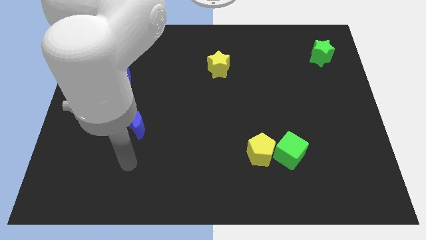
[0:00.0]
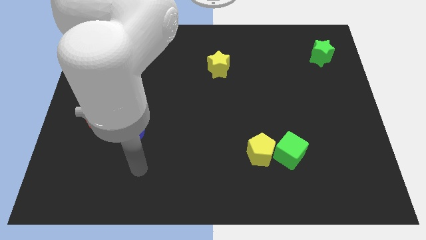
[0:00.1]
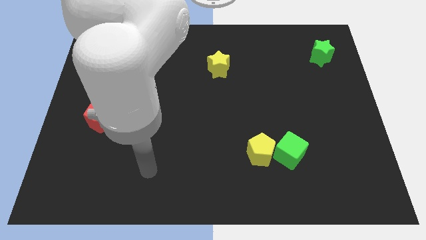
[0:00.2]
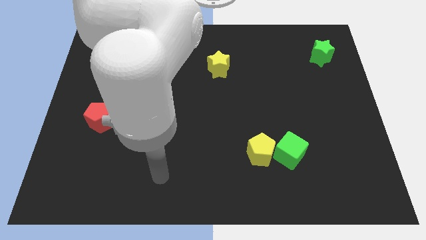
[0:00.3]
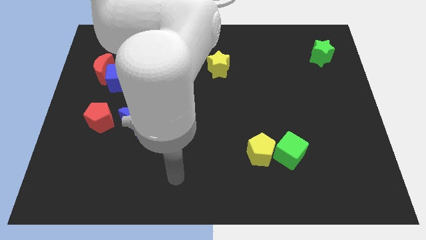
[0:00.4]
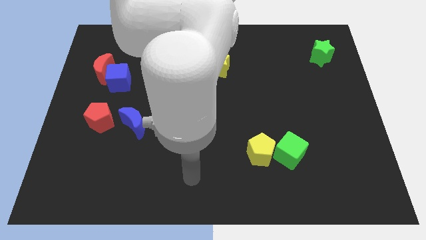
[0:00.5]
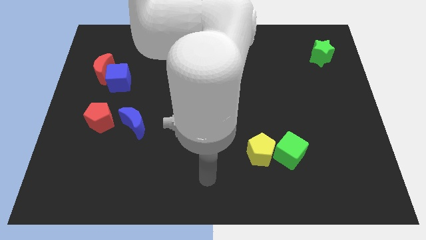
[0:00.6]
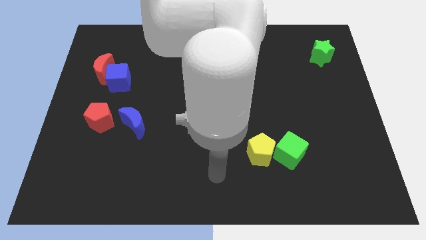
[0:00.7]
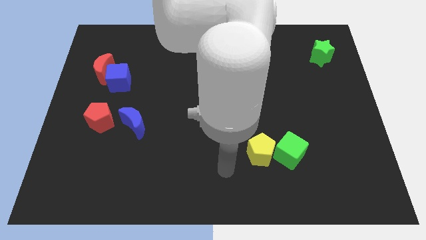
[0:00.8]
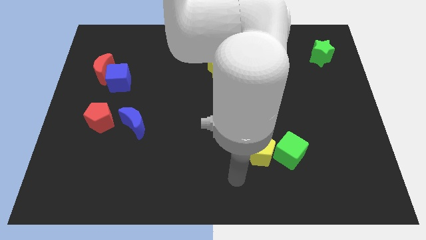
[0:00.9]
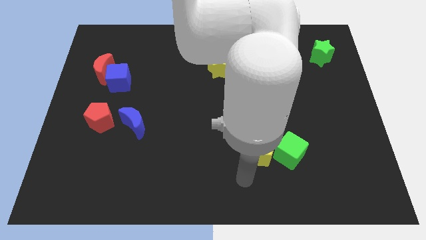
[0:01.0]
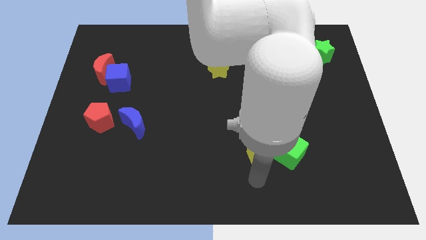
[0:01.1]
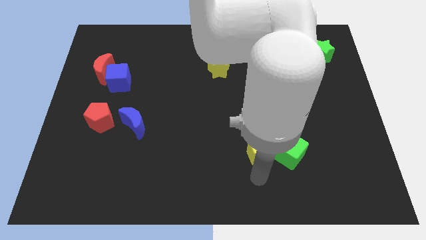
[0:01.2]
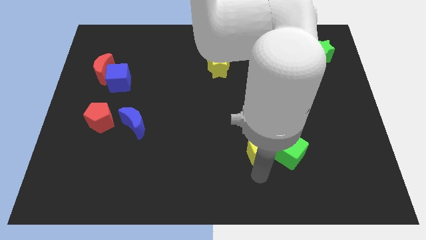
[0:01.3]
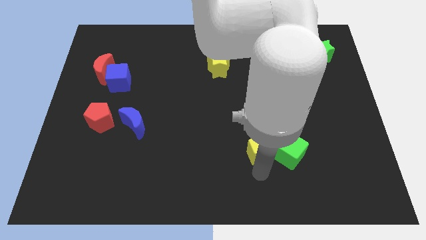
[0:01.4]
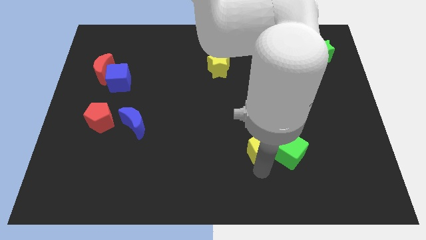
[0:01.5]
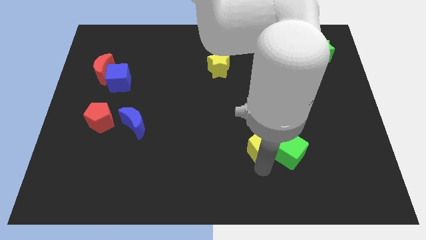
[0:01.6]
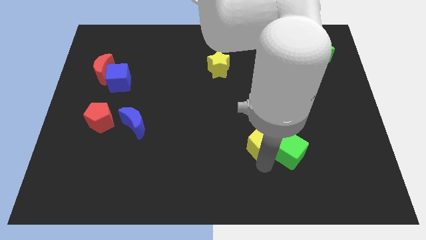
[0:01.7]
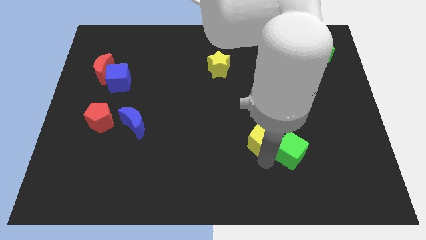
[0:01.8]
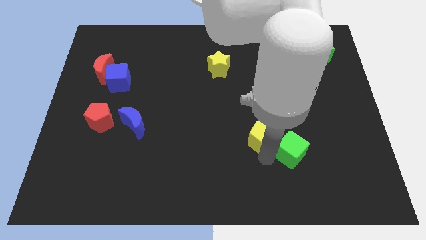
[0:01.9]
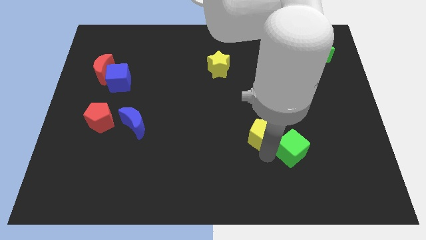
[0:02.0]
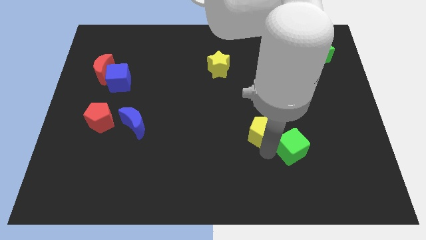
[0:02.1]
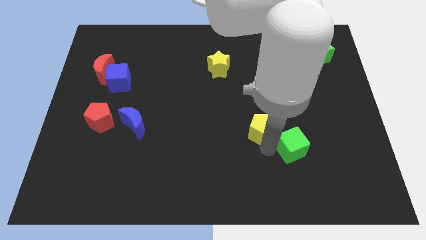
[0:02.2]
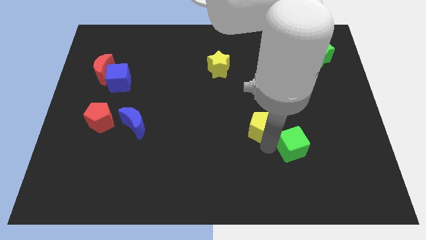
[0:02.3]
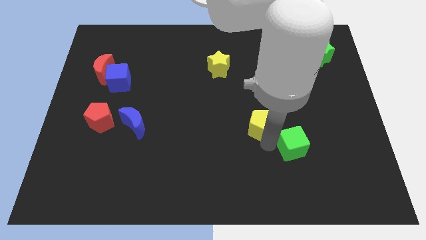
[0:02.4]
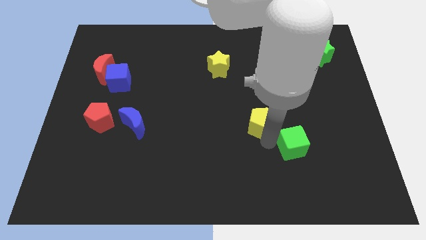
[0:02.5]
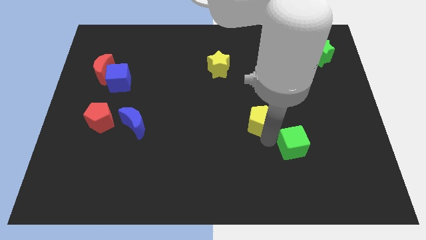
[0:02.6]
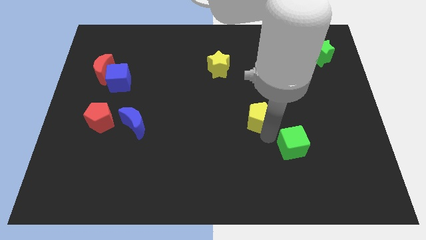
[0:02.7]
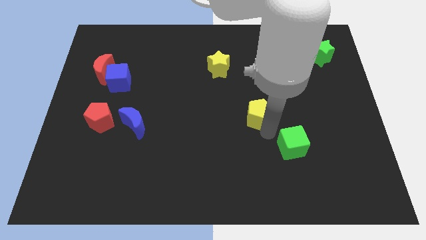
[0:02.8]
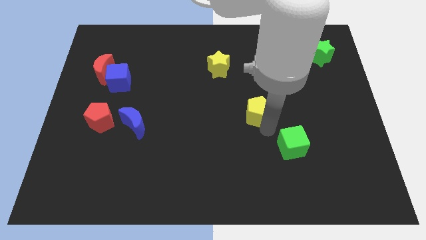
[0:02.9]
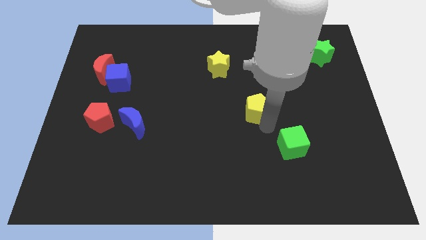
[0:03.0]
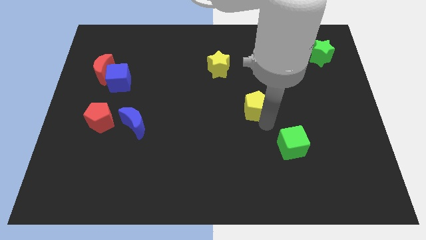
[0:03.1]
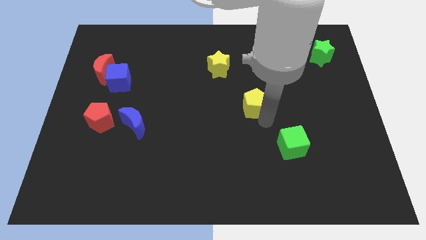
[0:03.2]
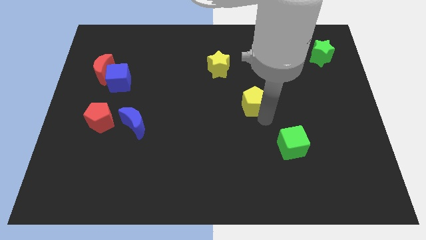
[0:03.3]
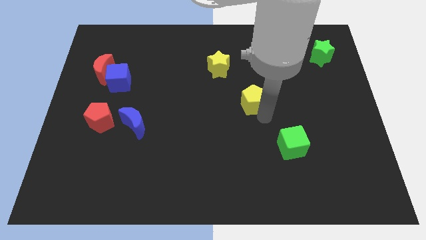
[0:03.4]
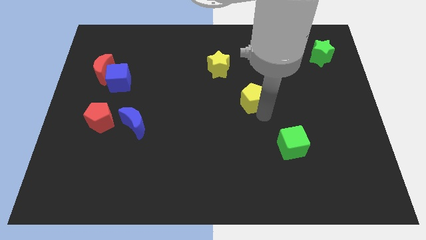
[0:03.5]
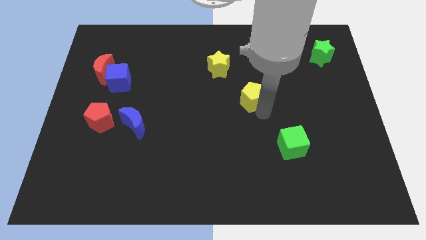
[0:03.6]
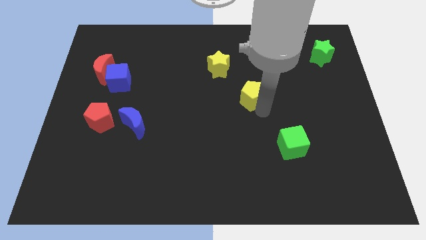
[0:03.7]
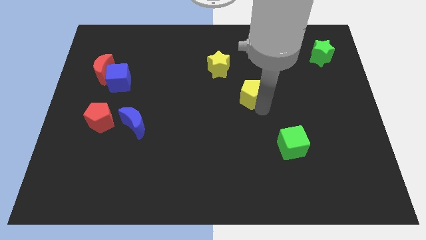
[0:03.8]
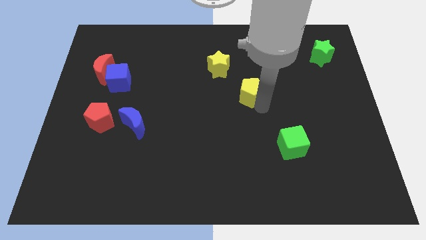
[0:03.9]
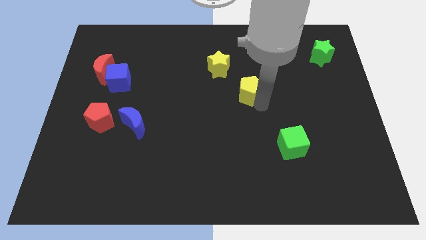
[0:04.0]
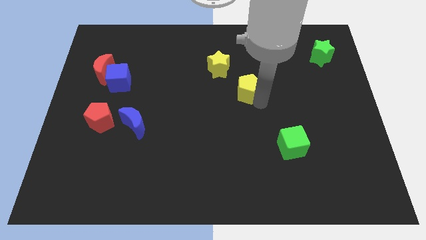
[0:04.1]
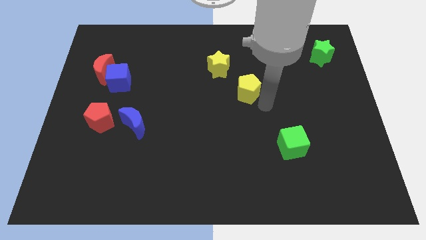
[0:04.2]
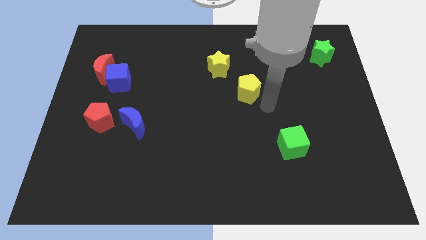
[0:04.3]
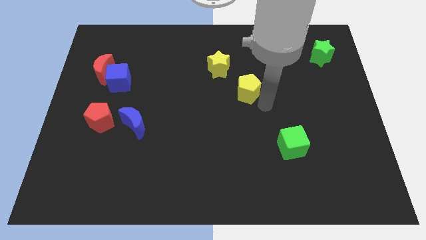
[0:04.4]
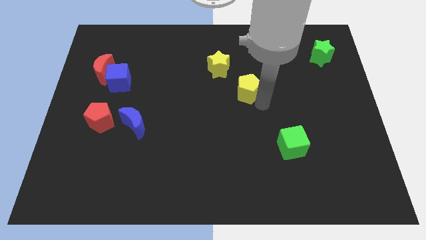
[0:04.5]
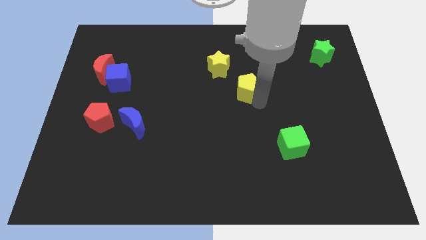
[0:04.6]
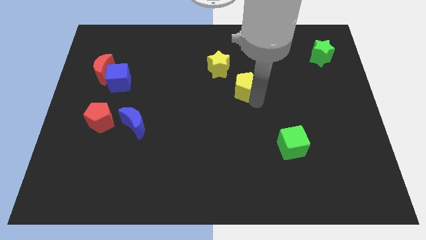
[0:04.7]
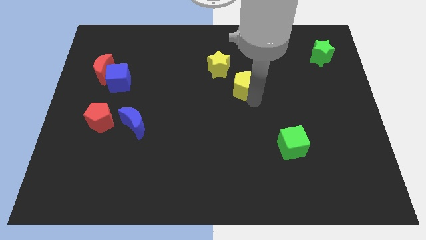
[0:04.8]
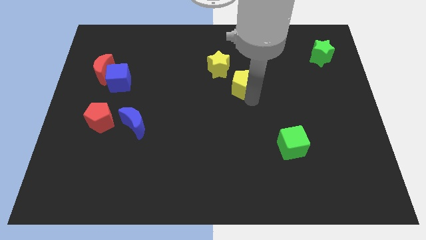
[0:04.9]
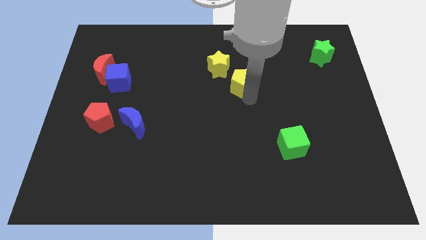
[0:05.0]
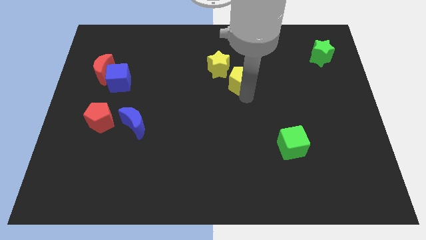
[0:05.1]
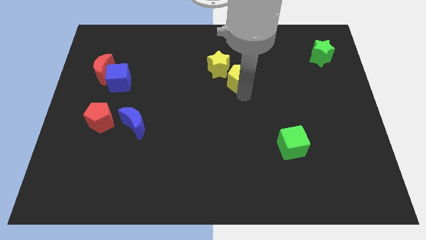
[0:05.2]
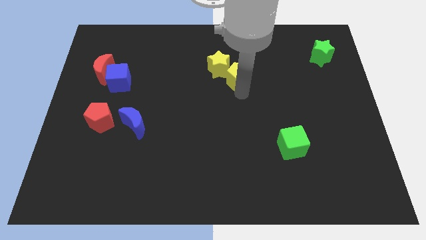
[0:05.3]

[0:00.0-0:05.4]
push the yellow pentagon close to the yellow star

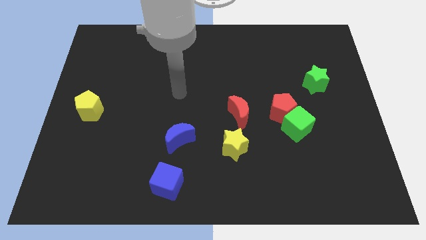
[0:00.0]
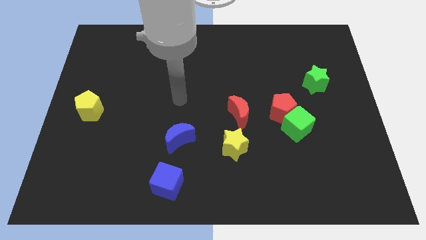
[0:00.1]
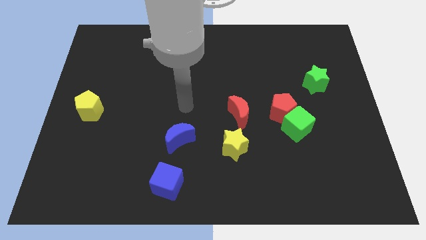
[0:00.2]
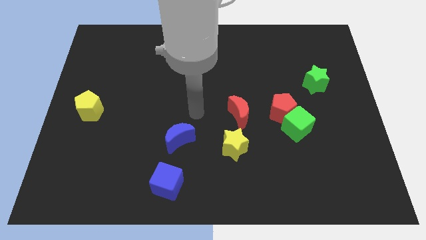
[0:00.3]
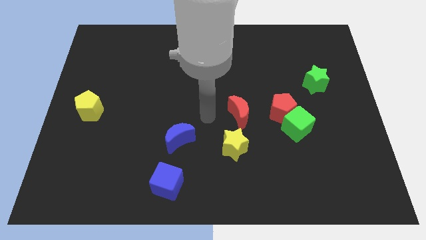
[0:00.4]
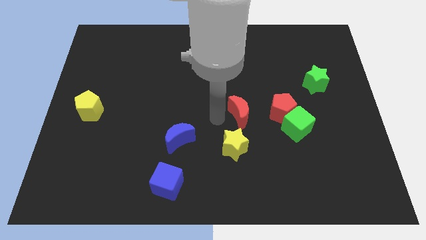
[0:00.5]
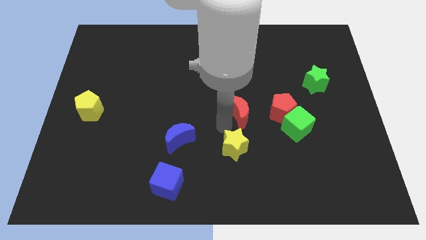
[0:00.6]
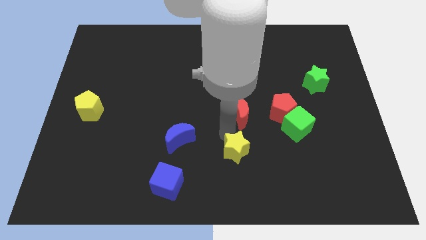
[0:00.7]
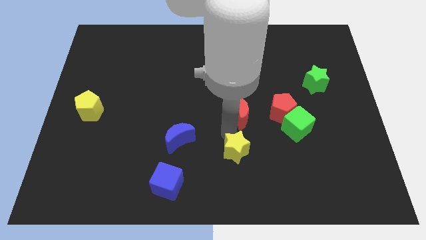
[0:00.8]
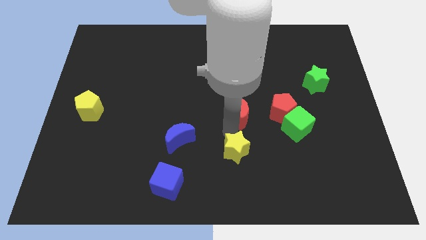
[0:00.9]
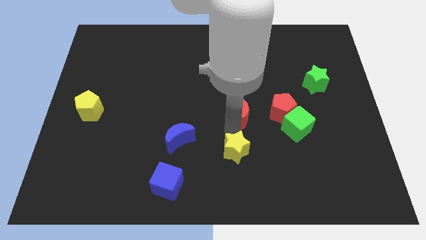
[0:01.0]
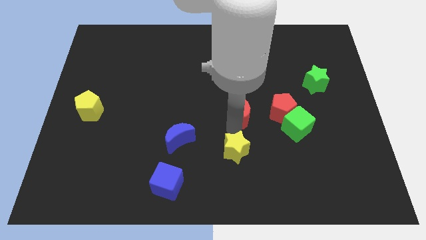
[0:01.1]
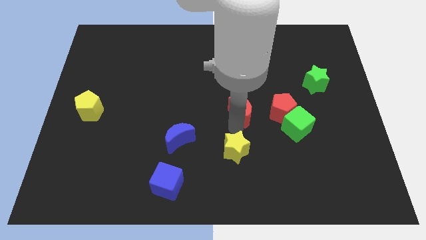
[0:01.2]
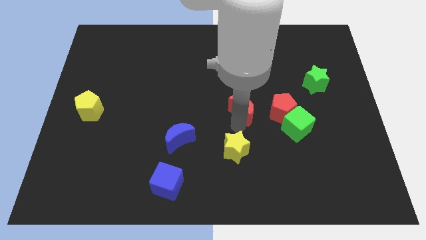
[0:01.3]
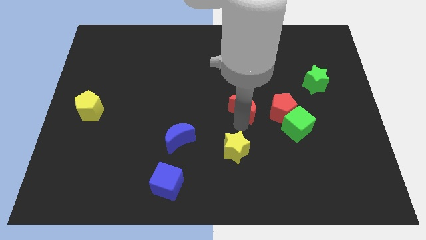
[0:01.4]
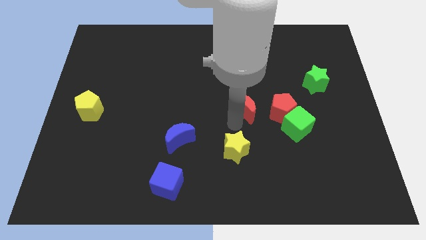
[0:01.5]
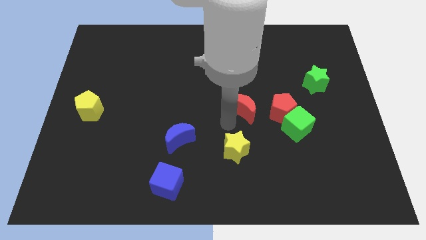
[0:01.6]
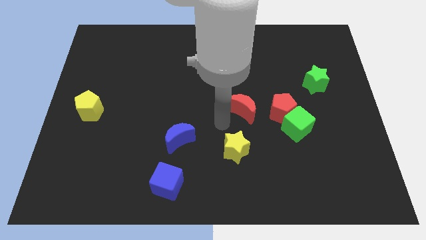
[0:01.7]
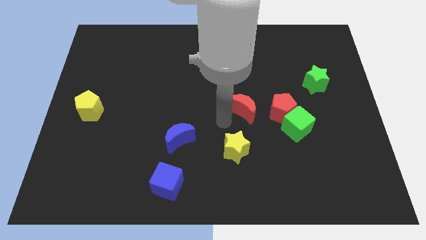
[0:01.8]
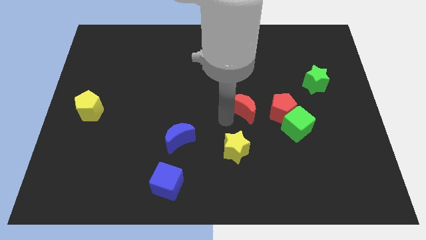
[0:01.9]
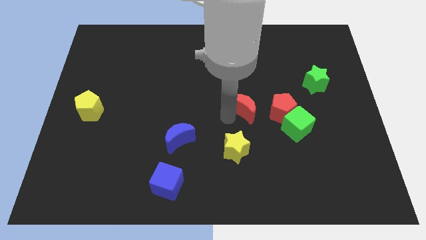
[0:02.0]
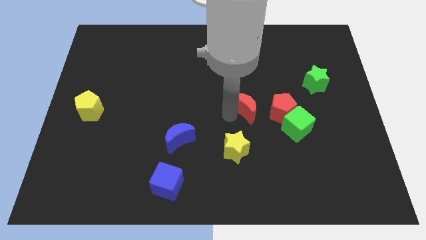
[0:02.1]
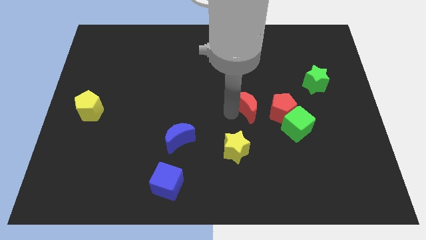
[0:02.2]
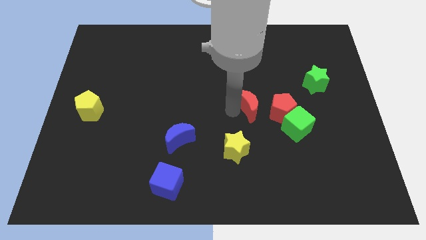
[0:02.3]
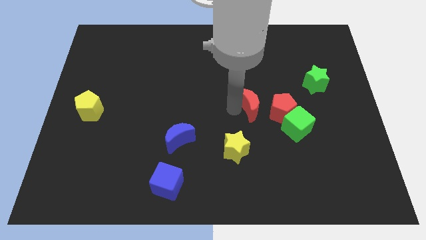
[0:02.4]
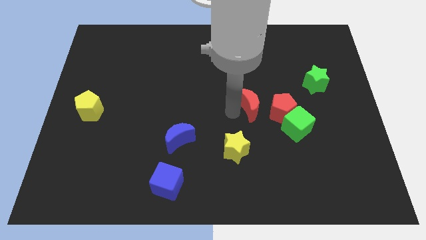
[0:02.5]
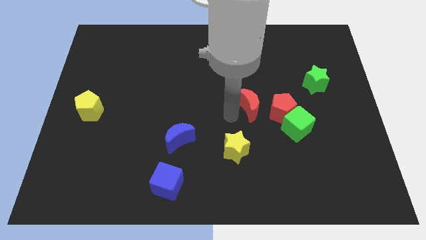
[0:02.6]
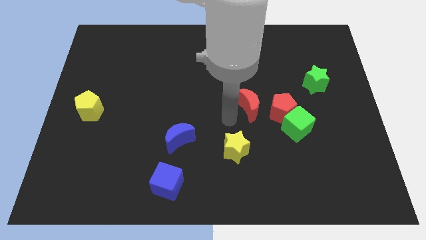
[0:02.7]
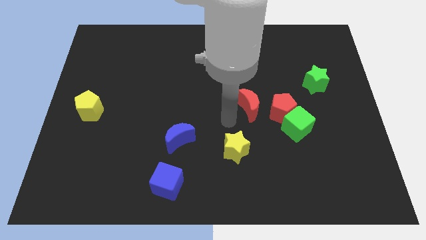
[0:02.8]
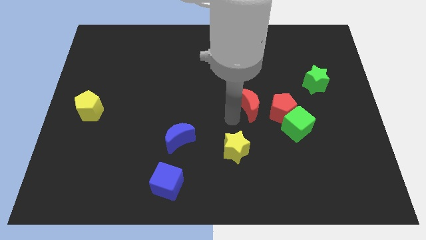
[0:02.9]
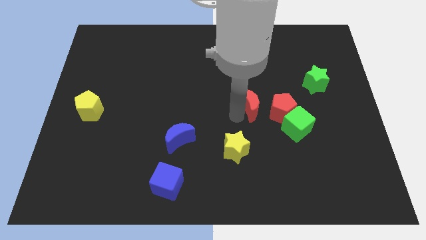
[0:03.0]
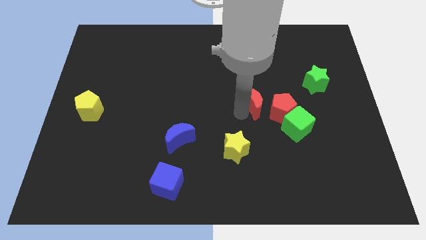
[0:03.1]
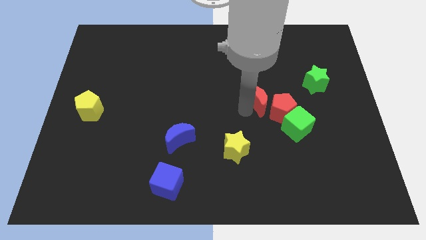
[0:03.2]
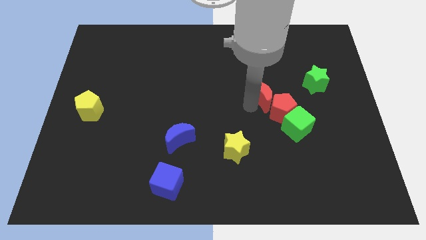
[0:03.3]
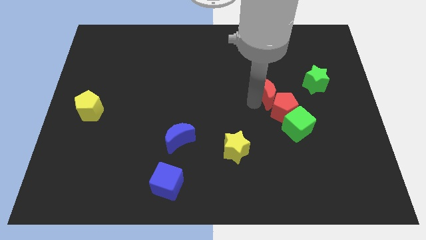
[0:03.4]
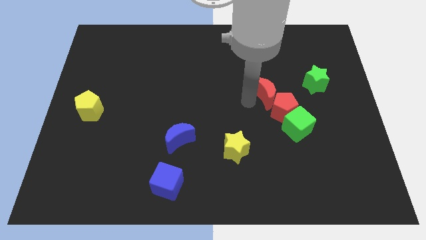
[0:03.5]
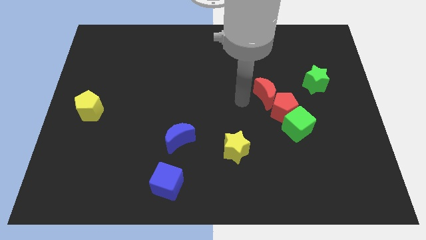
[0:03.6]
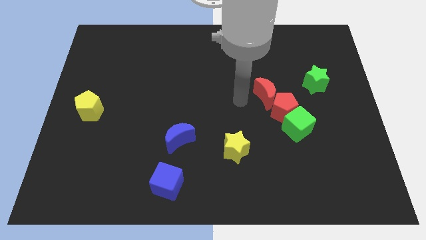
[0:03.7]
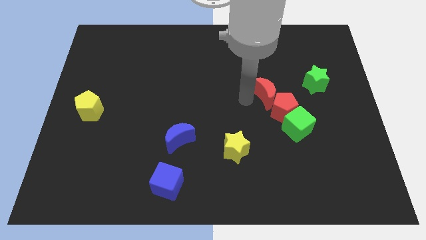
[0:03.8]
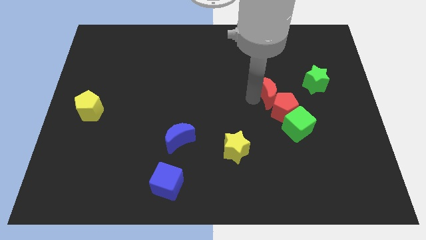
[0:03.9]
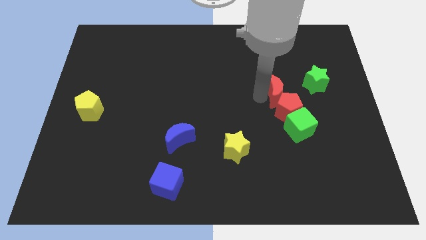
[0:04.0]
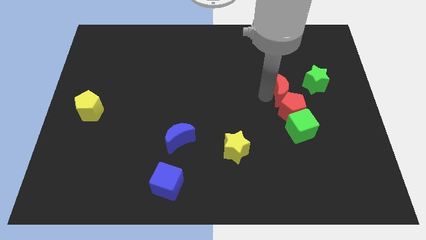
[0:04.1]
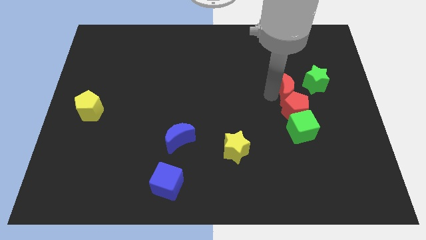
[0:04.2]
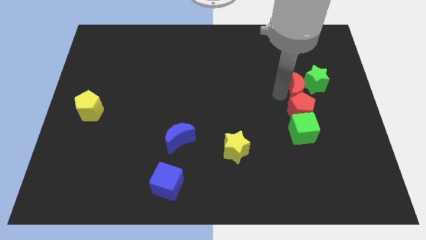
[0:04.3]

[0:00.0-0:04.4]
push the red moon to the green star
